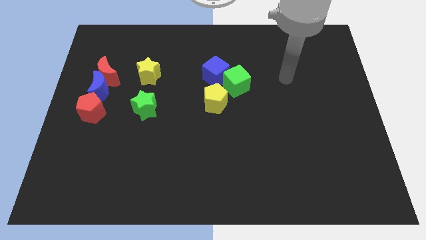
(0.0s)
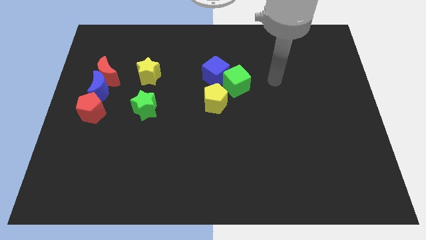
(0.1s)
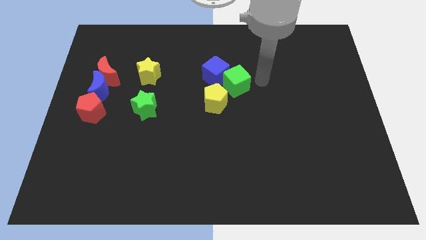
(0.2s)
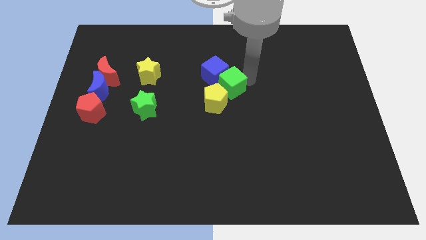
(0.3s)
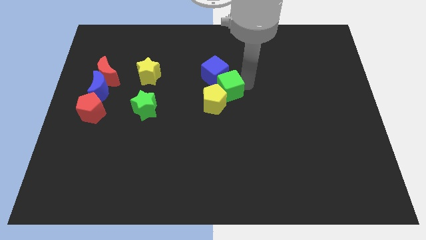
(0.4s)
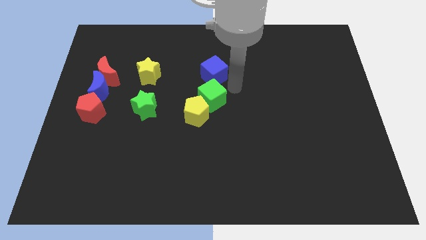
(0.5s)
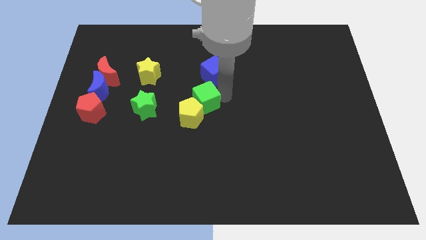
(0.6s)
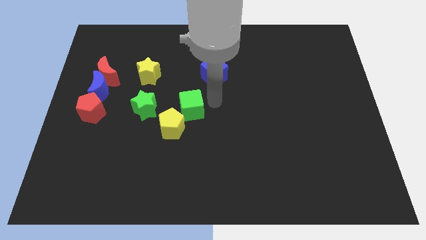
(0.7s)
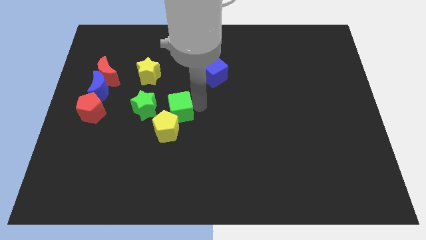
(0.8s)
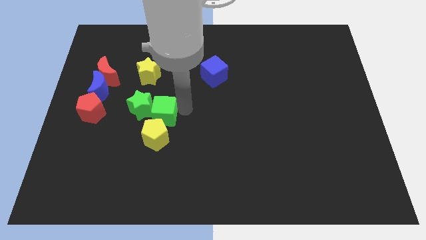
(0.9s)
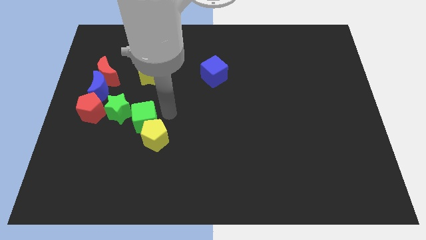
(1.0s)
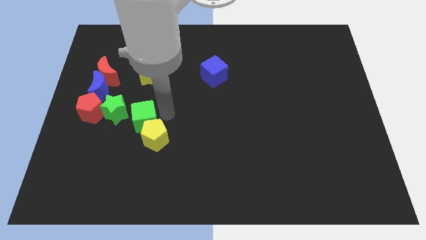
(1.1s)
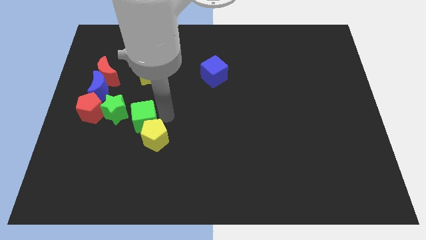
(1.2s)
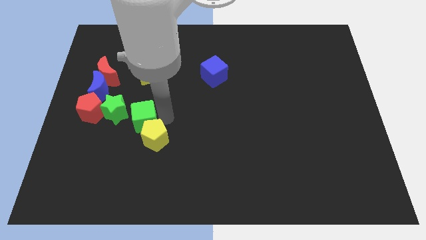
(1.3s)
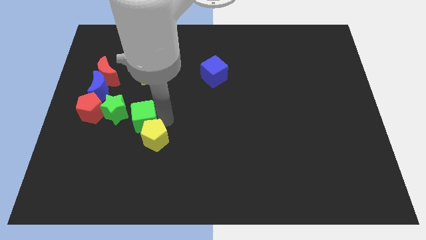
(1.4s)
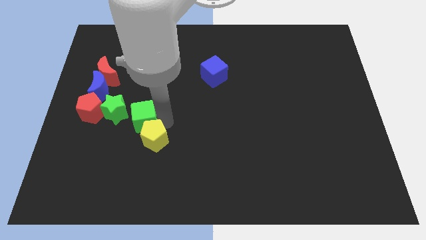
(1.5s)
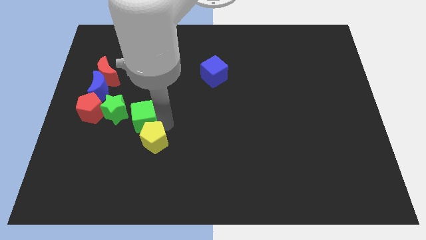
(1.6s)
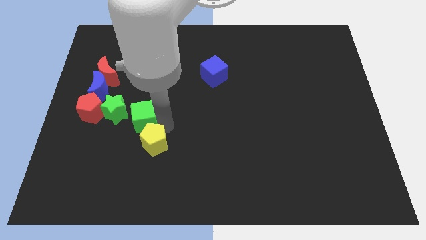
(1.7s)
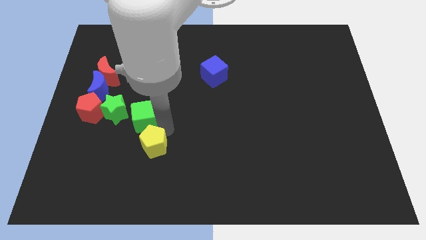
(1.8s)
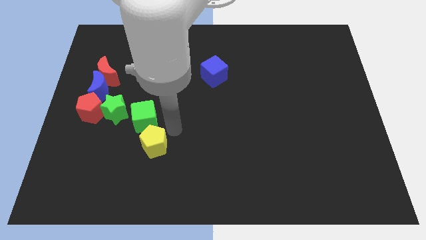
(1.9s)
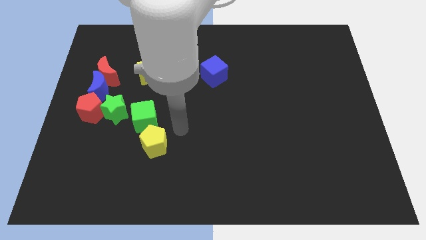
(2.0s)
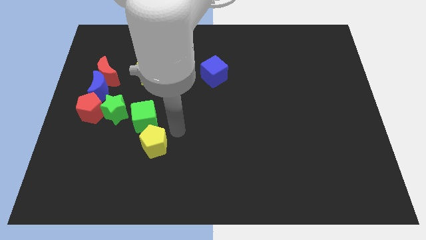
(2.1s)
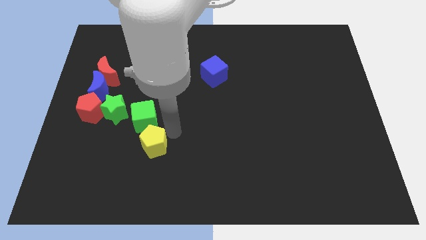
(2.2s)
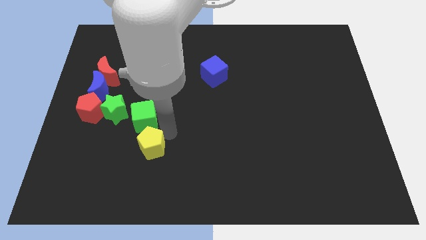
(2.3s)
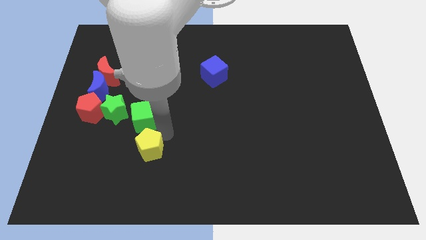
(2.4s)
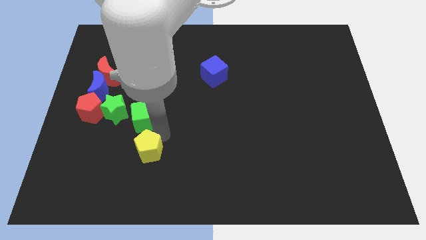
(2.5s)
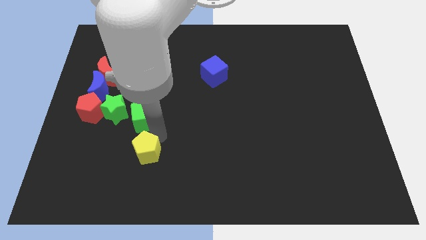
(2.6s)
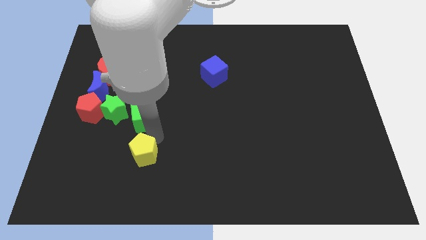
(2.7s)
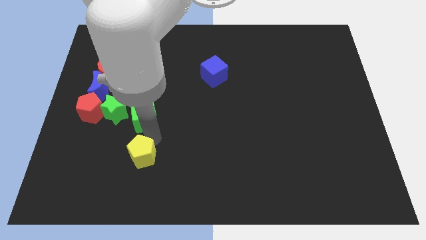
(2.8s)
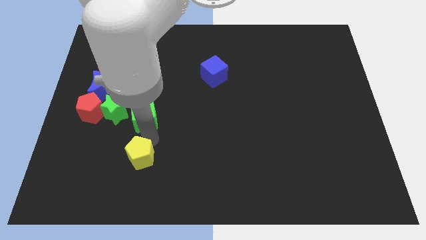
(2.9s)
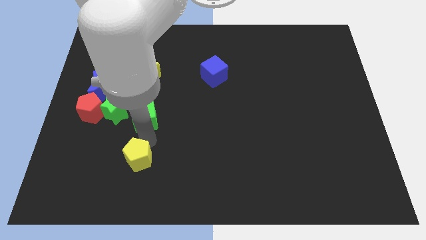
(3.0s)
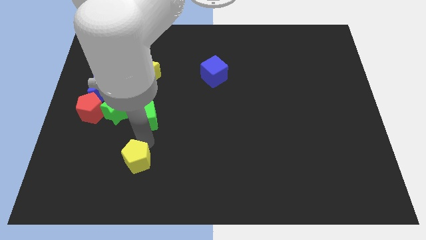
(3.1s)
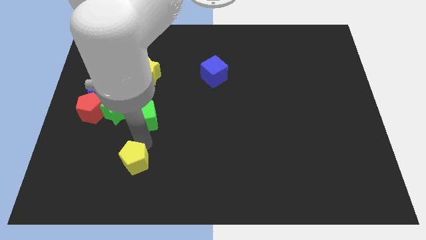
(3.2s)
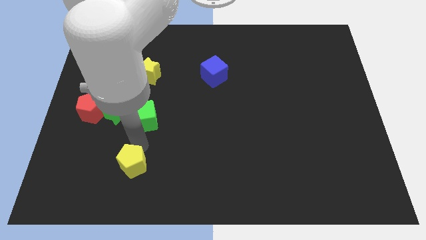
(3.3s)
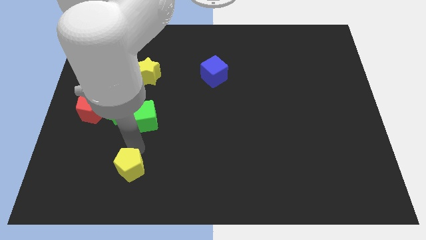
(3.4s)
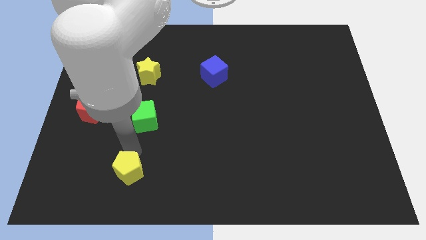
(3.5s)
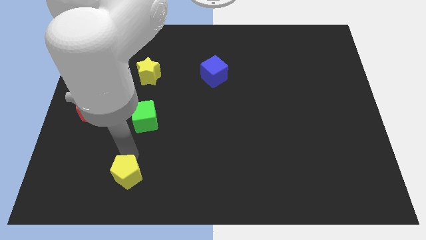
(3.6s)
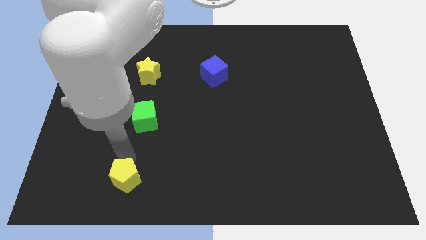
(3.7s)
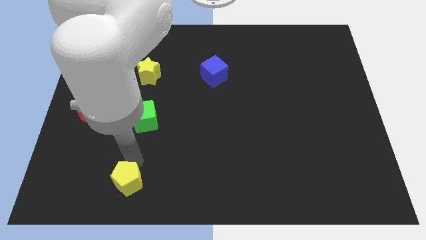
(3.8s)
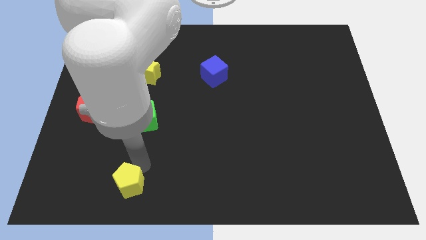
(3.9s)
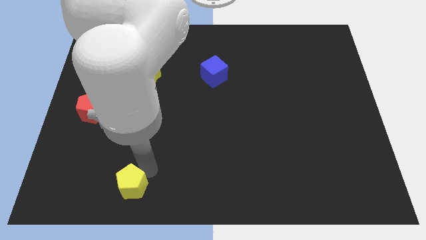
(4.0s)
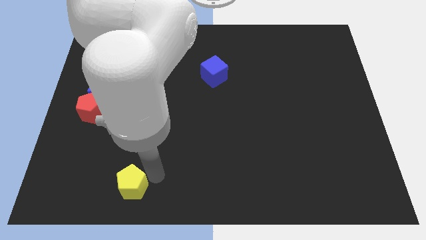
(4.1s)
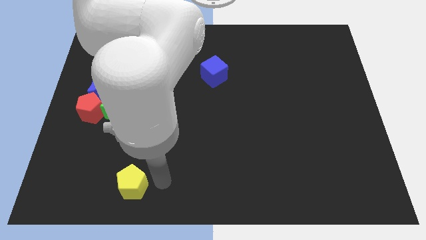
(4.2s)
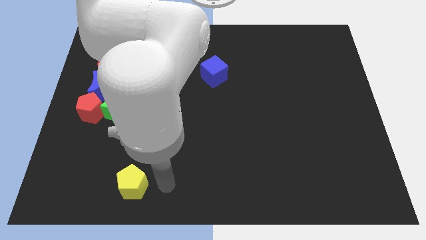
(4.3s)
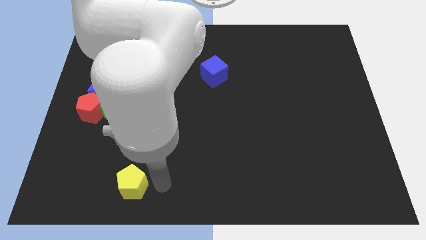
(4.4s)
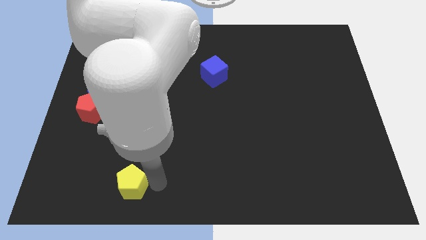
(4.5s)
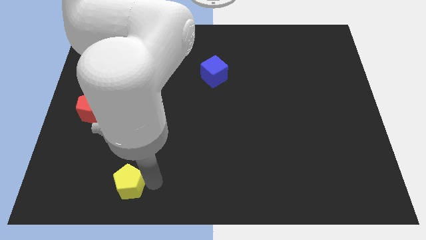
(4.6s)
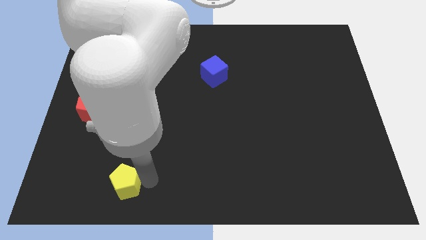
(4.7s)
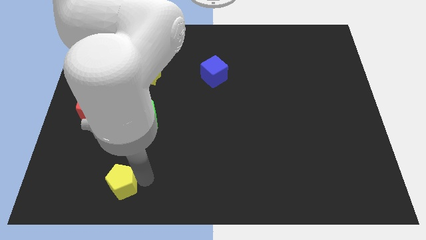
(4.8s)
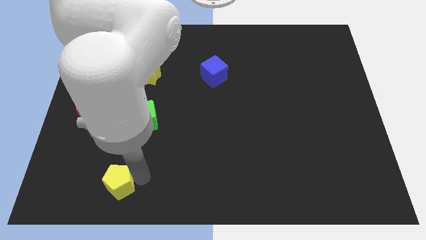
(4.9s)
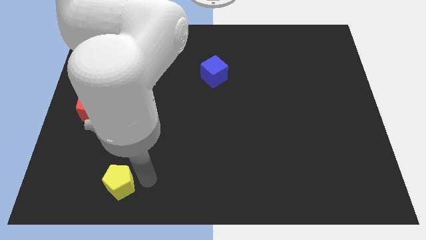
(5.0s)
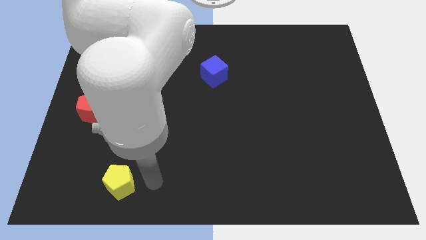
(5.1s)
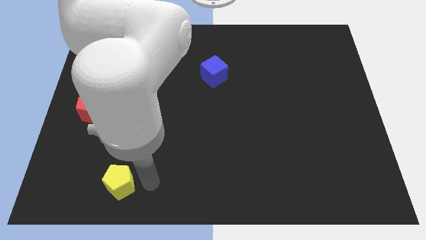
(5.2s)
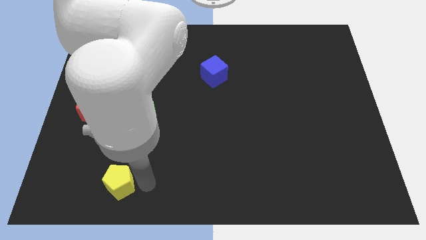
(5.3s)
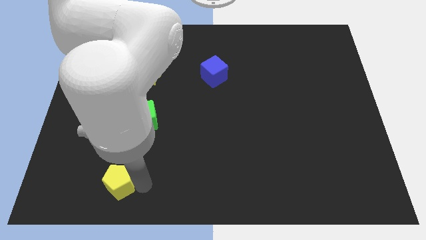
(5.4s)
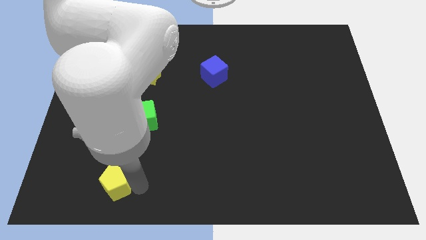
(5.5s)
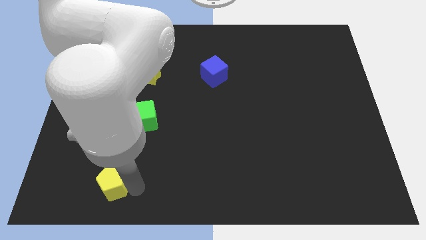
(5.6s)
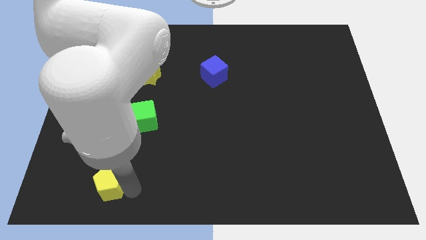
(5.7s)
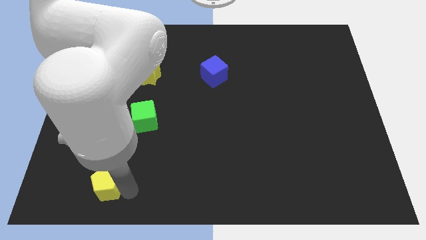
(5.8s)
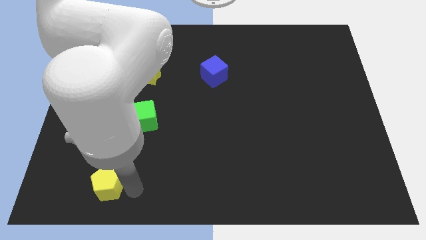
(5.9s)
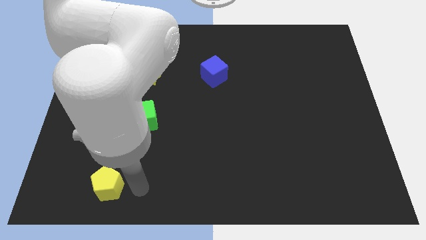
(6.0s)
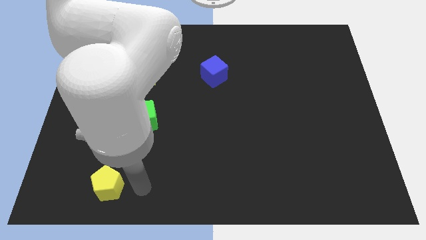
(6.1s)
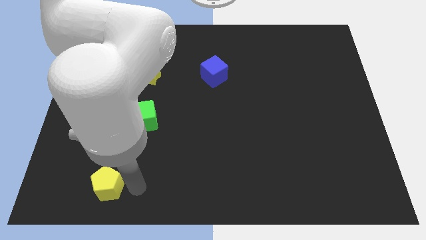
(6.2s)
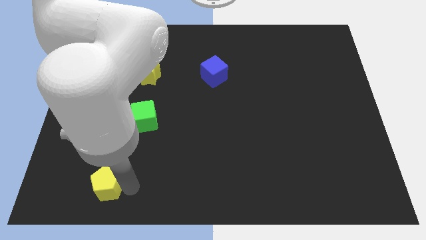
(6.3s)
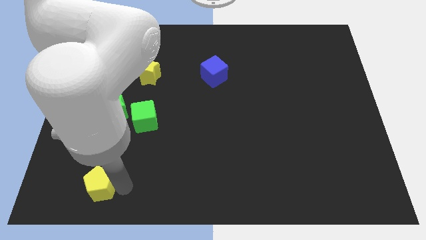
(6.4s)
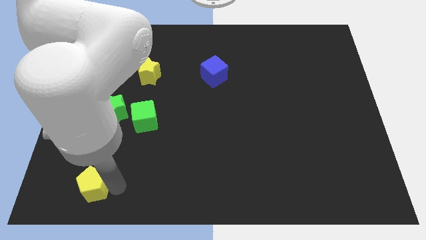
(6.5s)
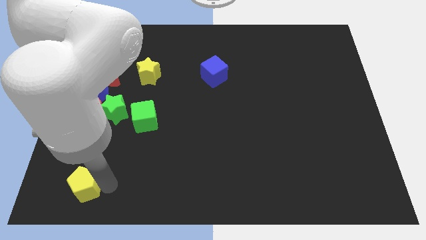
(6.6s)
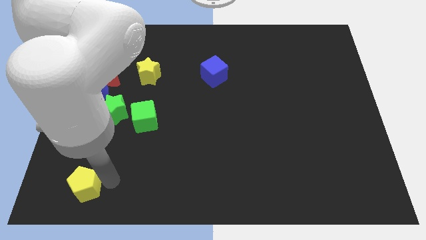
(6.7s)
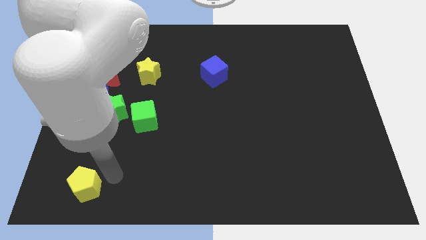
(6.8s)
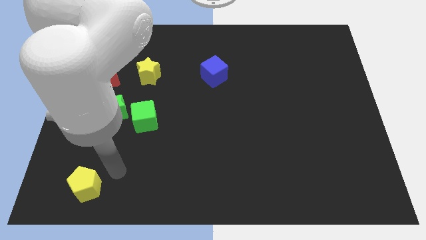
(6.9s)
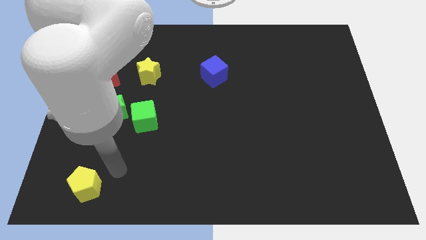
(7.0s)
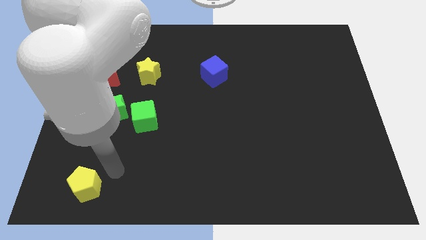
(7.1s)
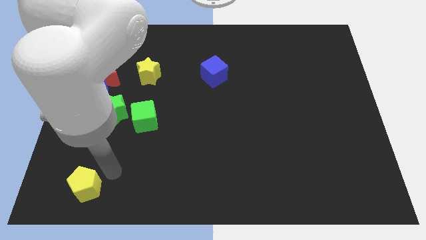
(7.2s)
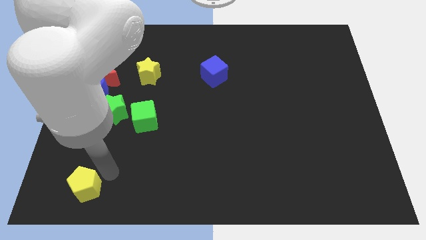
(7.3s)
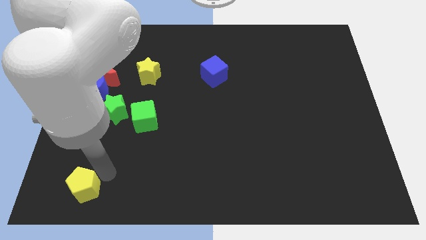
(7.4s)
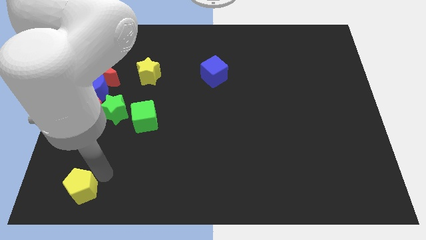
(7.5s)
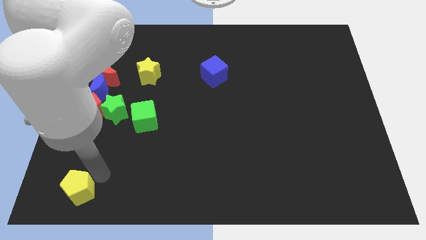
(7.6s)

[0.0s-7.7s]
move the yellow pentagon to the bottom left

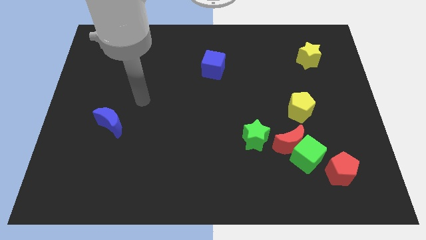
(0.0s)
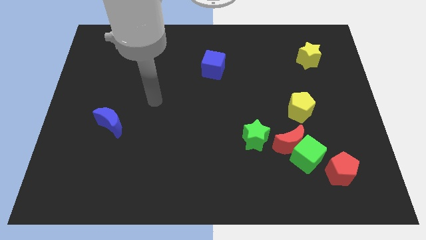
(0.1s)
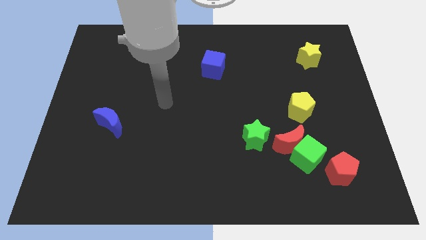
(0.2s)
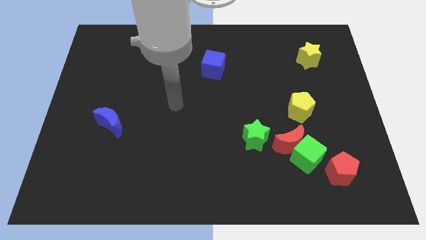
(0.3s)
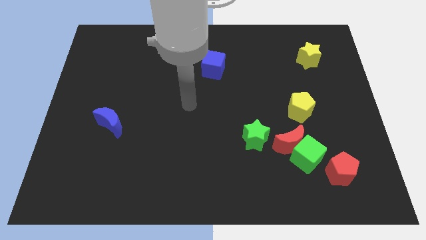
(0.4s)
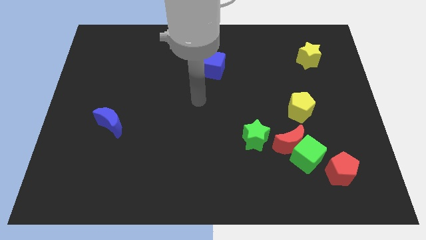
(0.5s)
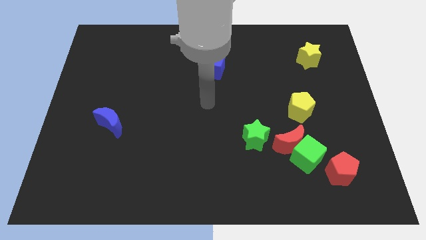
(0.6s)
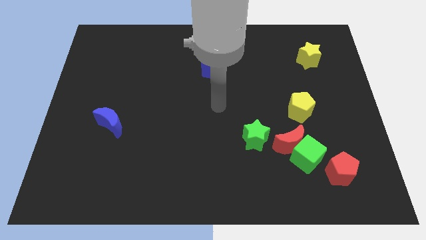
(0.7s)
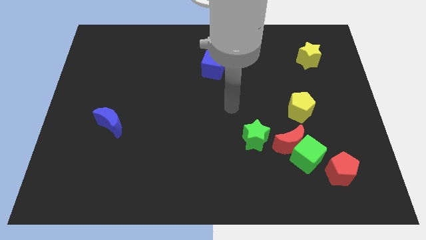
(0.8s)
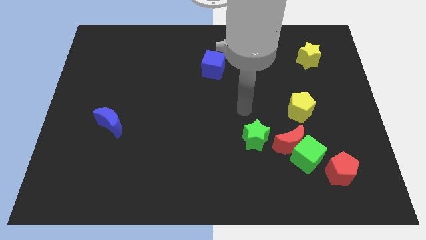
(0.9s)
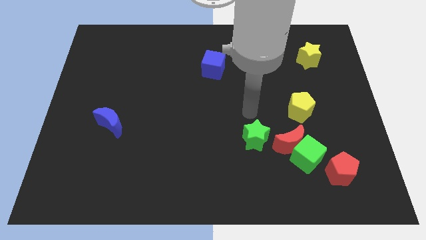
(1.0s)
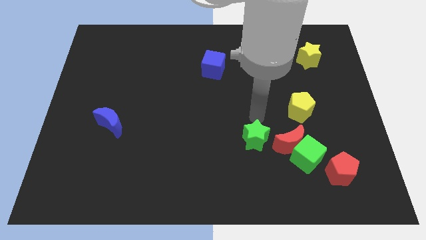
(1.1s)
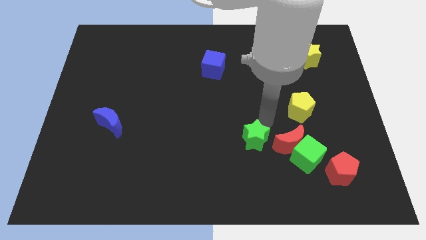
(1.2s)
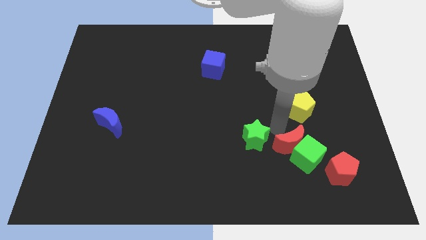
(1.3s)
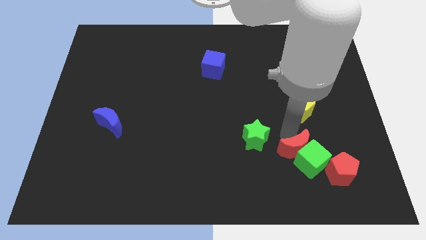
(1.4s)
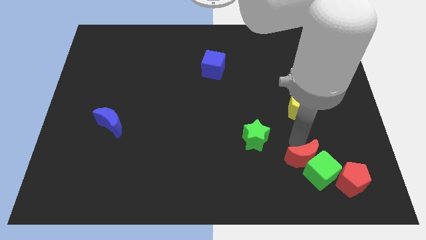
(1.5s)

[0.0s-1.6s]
put the red pentagon to the bottom right corner
